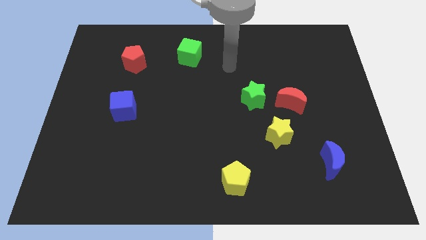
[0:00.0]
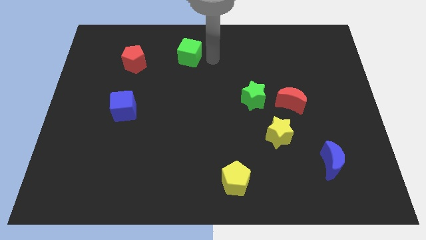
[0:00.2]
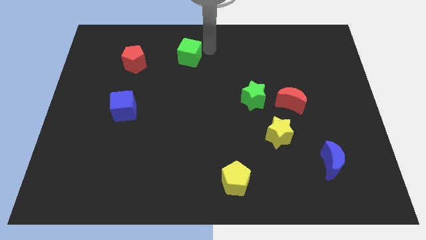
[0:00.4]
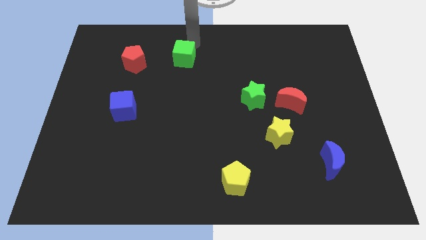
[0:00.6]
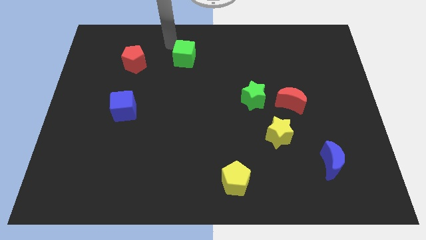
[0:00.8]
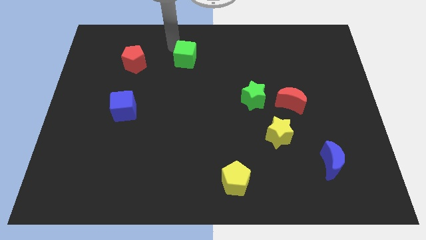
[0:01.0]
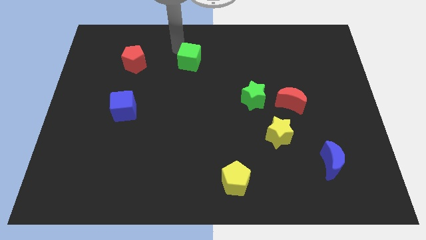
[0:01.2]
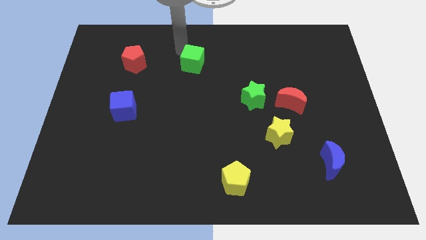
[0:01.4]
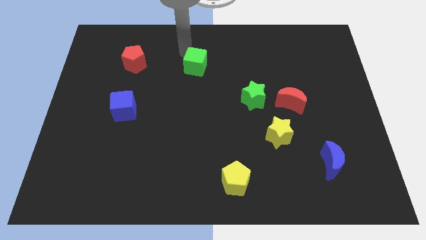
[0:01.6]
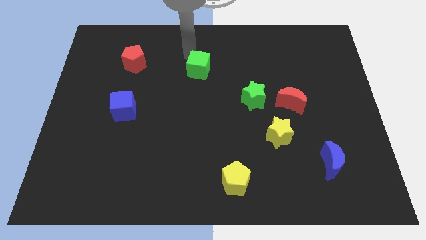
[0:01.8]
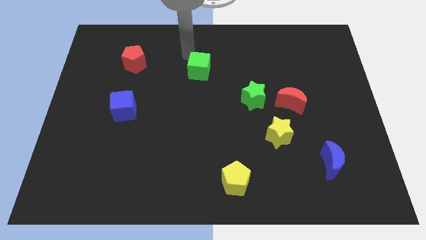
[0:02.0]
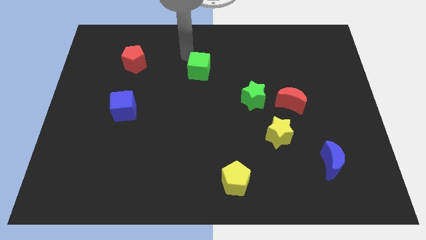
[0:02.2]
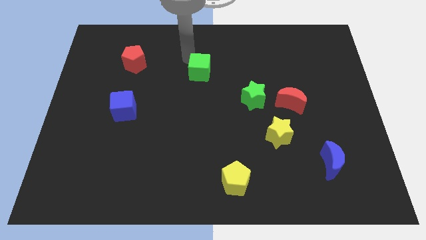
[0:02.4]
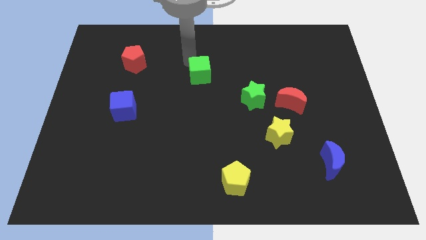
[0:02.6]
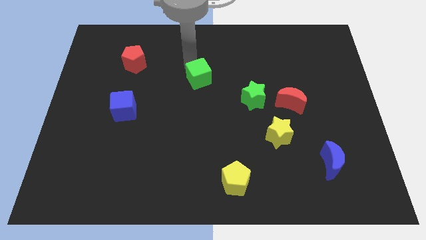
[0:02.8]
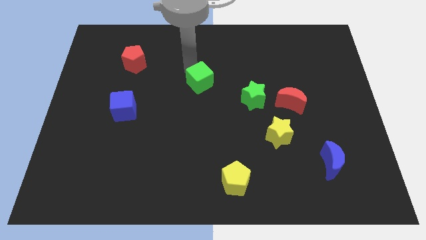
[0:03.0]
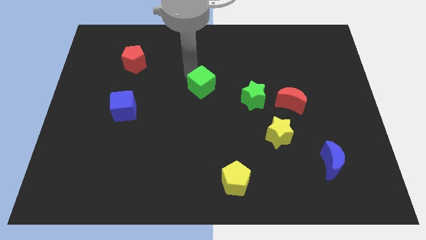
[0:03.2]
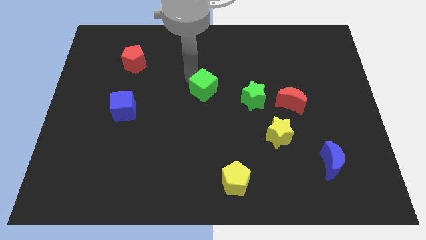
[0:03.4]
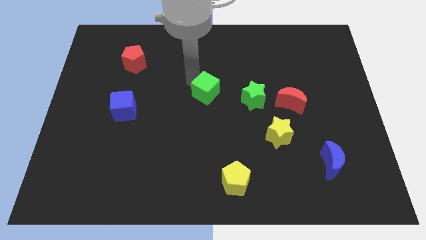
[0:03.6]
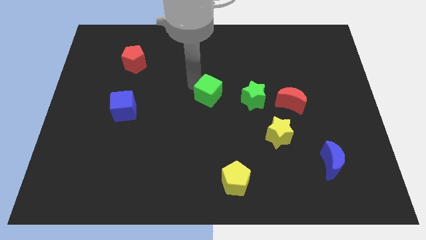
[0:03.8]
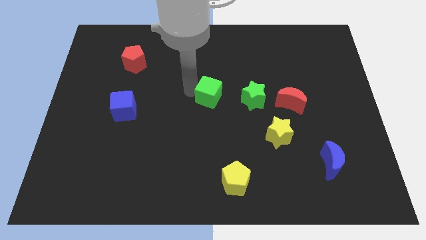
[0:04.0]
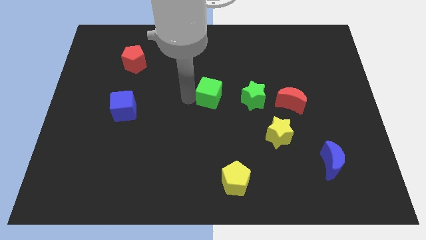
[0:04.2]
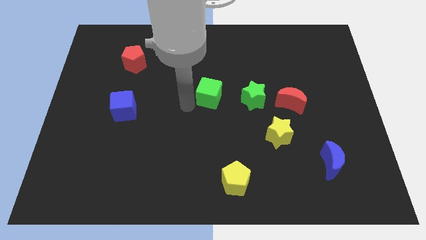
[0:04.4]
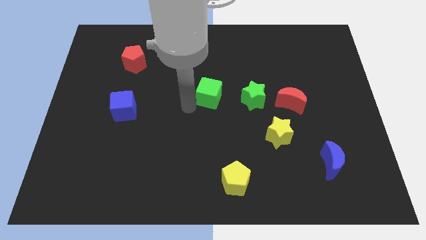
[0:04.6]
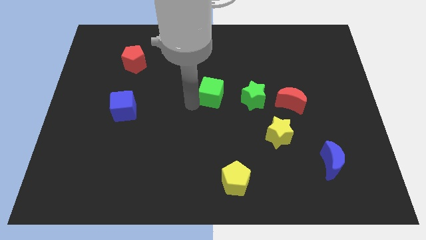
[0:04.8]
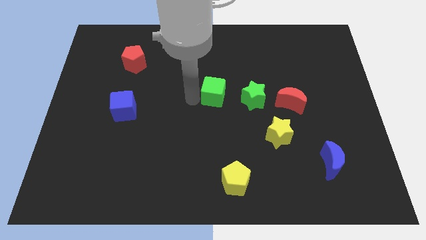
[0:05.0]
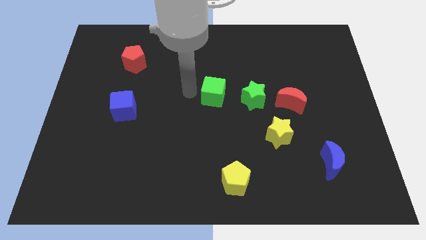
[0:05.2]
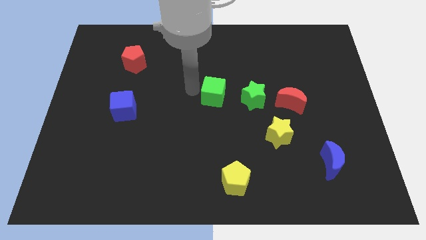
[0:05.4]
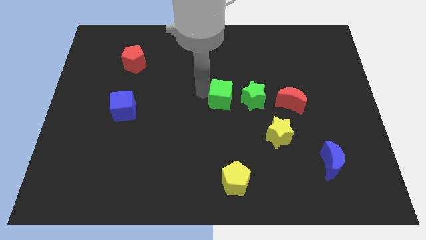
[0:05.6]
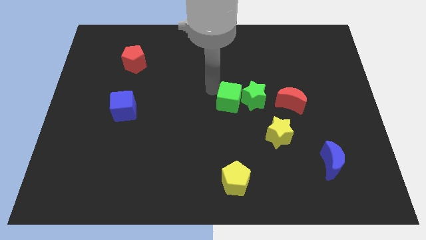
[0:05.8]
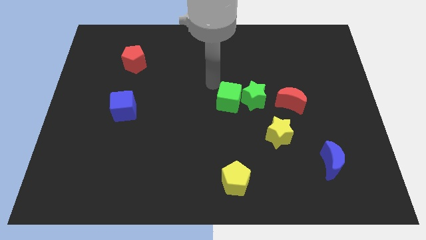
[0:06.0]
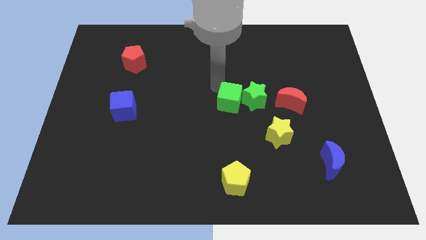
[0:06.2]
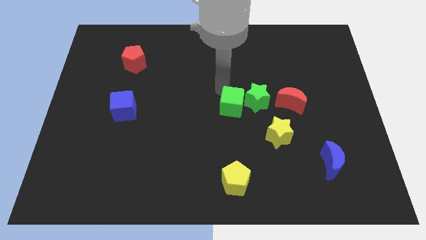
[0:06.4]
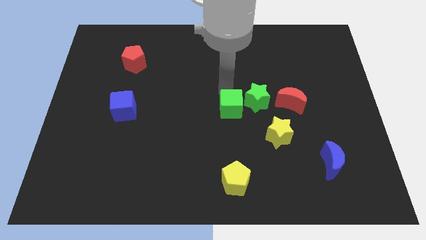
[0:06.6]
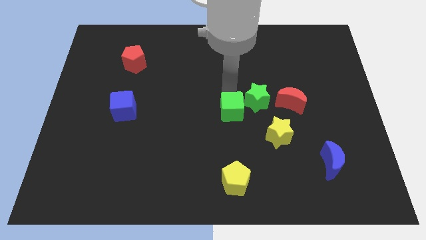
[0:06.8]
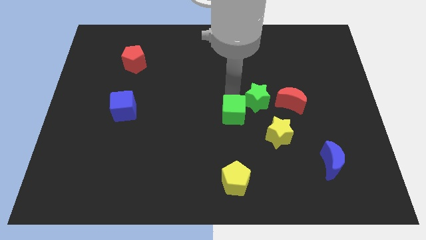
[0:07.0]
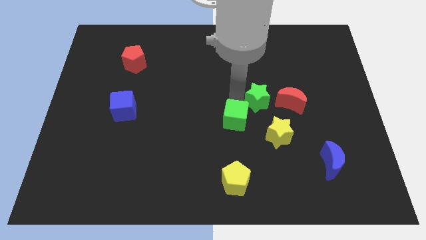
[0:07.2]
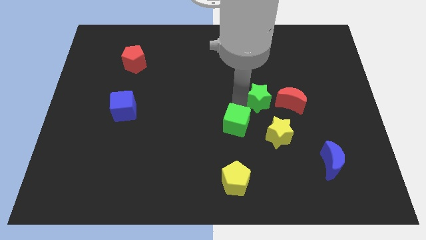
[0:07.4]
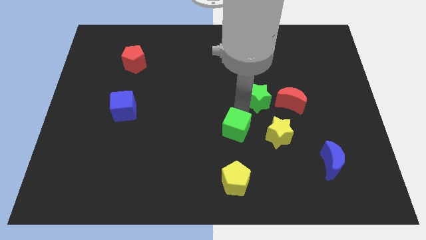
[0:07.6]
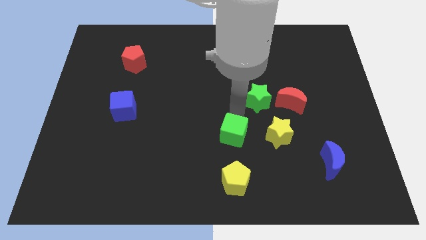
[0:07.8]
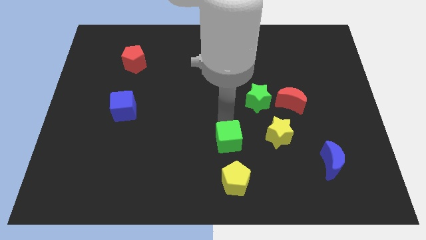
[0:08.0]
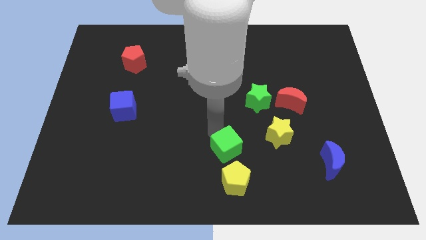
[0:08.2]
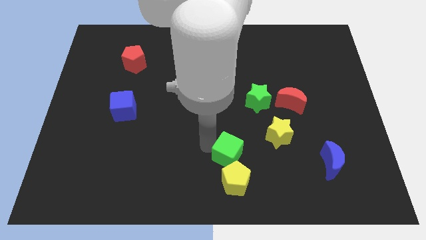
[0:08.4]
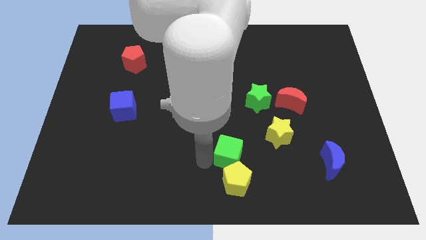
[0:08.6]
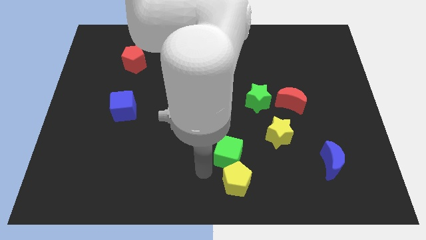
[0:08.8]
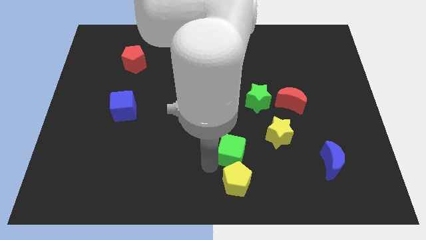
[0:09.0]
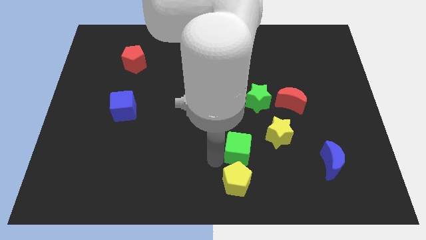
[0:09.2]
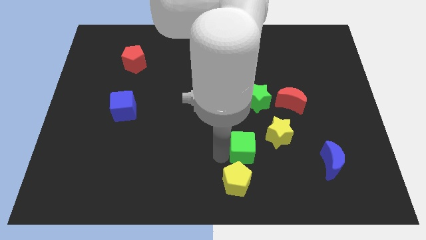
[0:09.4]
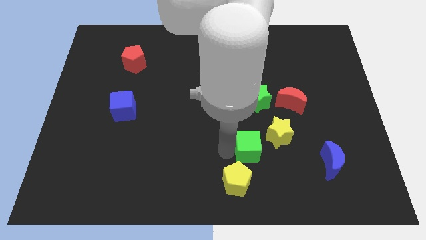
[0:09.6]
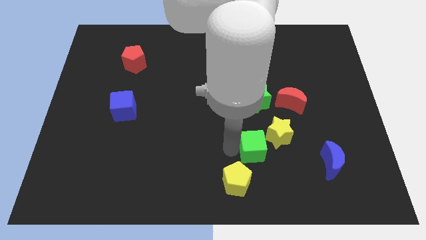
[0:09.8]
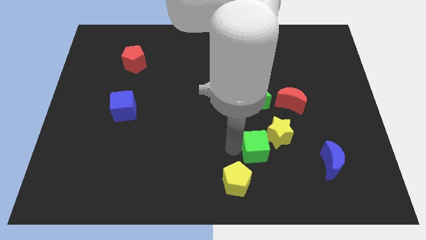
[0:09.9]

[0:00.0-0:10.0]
move the green cube to the yellow star

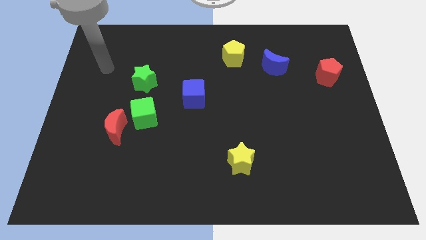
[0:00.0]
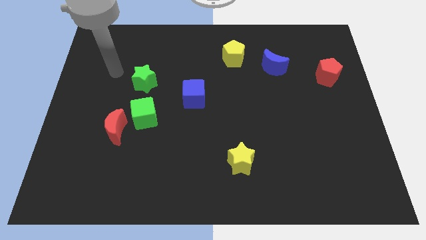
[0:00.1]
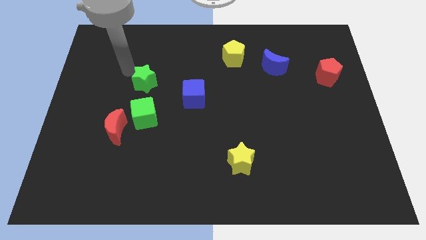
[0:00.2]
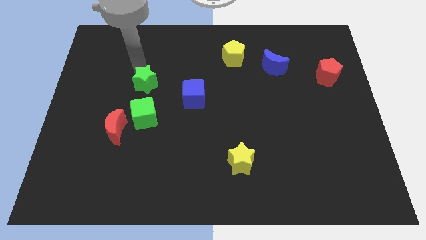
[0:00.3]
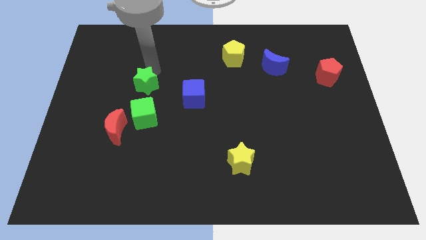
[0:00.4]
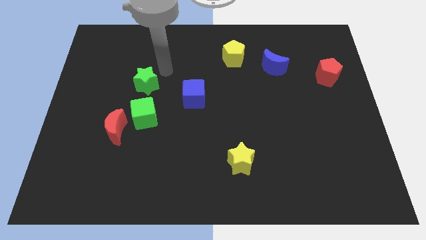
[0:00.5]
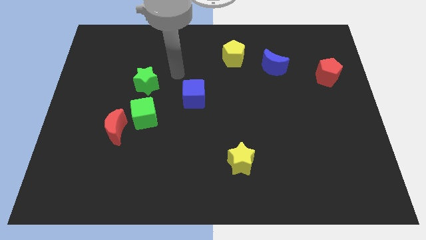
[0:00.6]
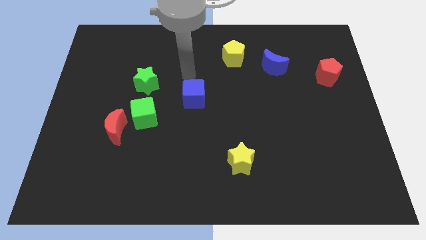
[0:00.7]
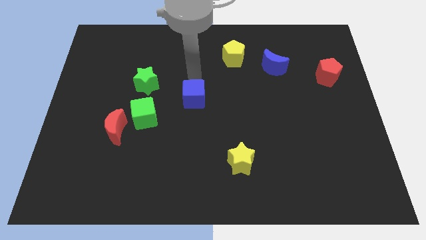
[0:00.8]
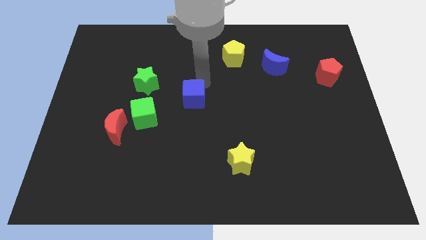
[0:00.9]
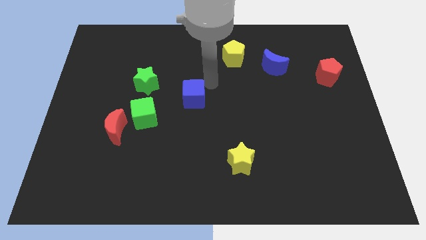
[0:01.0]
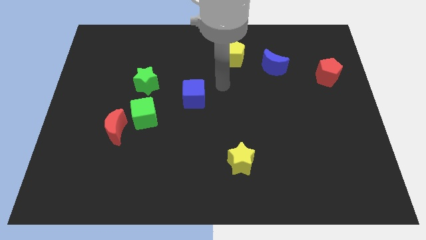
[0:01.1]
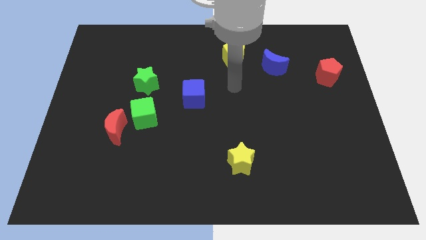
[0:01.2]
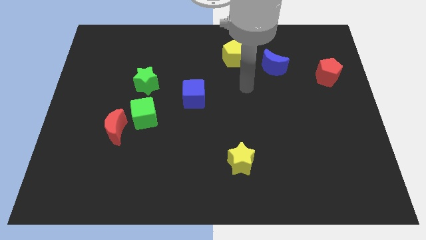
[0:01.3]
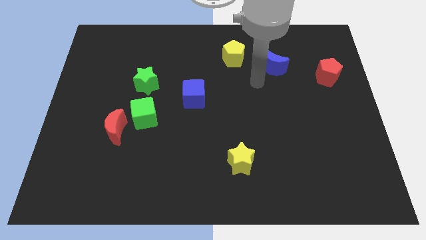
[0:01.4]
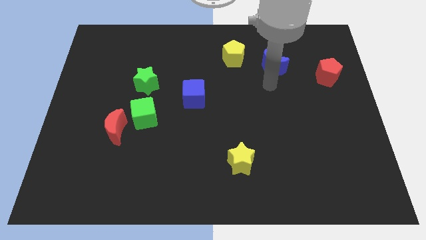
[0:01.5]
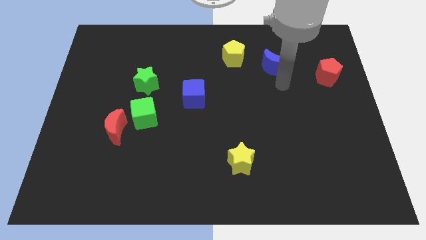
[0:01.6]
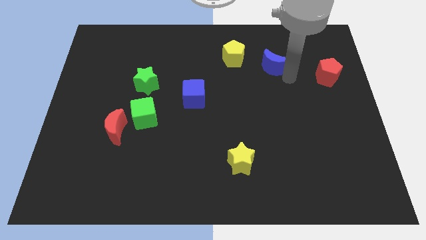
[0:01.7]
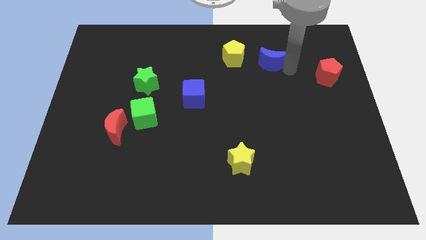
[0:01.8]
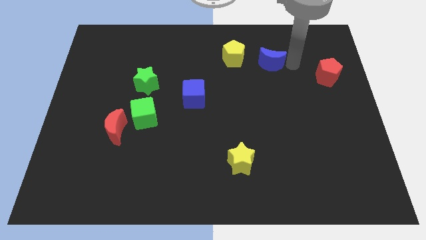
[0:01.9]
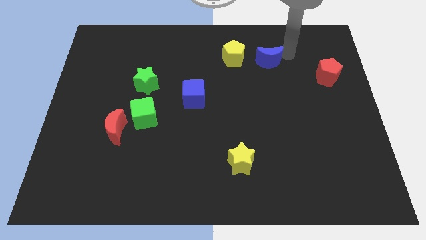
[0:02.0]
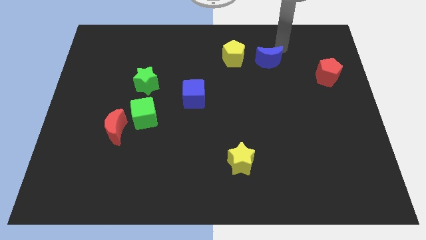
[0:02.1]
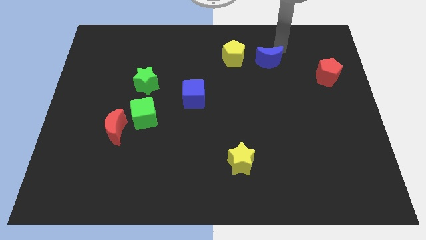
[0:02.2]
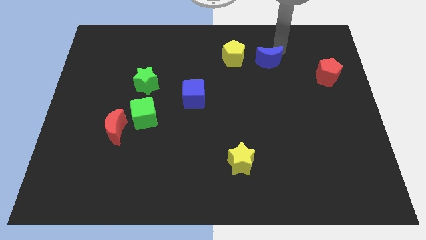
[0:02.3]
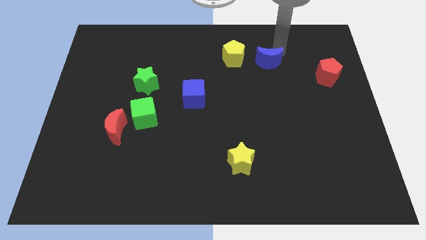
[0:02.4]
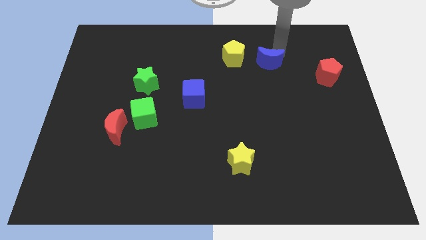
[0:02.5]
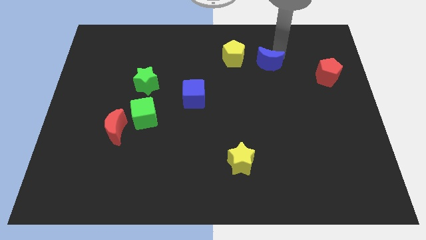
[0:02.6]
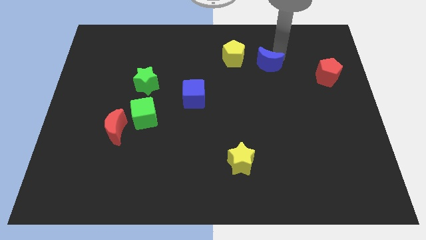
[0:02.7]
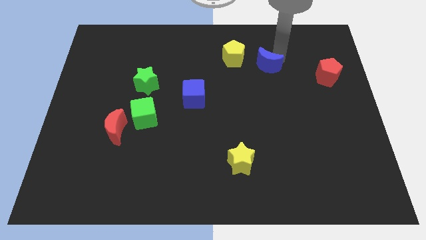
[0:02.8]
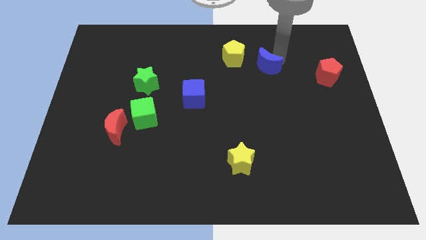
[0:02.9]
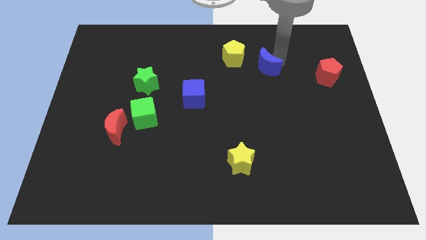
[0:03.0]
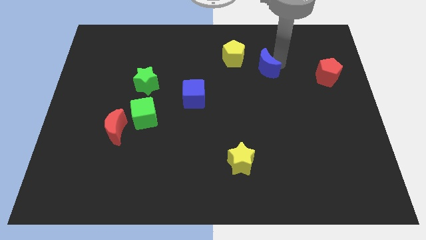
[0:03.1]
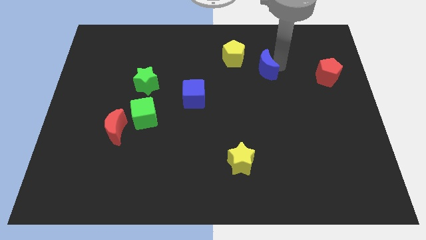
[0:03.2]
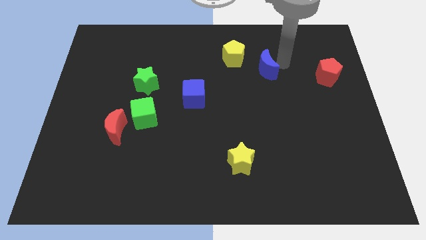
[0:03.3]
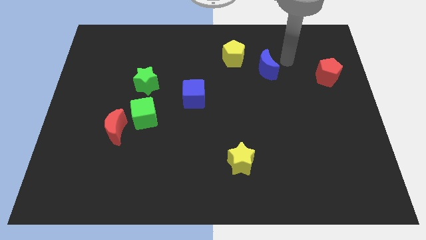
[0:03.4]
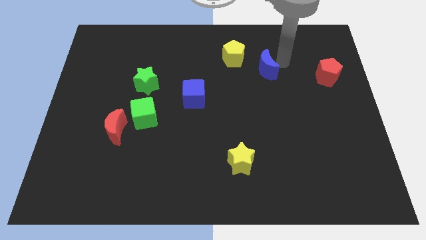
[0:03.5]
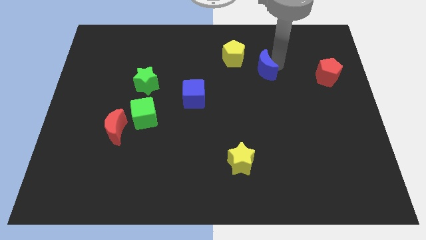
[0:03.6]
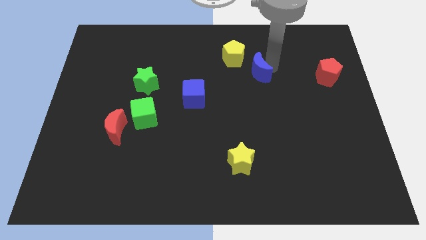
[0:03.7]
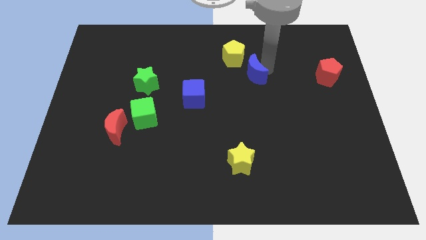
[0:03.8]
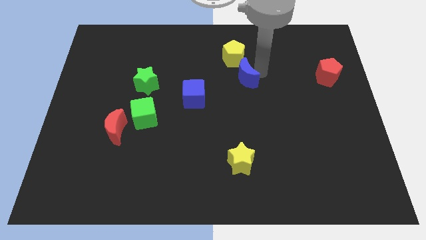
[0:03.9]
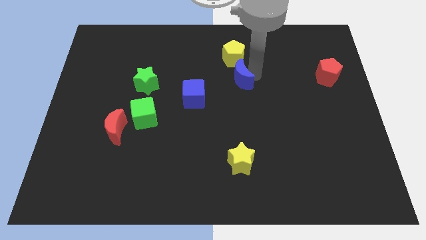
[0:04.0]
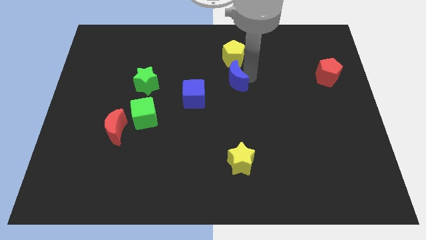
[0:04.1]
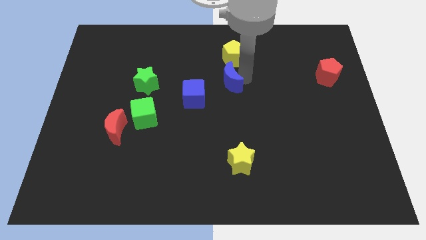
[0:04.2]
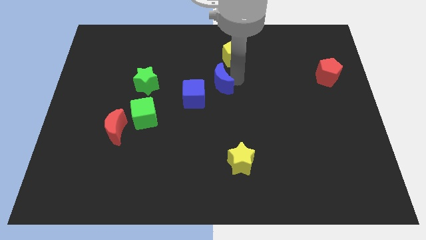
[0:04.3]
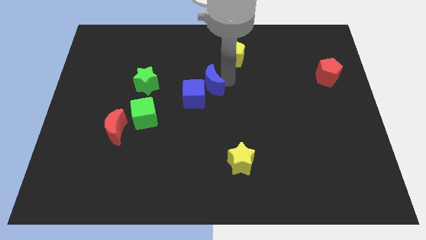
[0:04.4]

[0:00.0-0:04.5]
push the blue moon next to the blue cube
